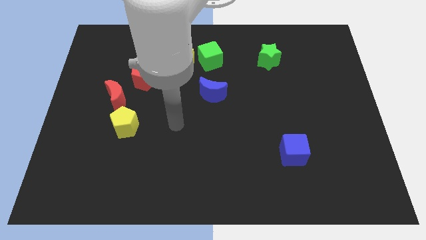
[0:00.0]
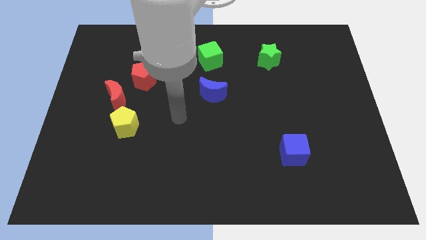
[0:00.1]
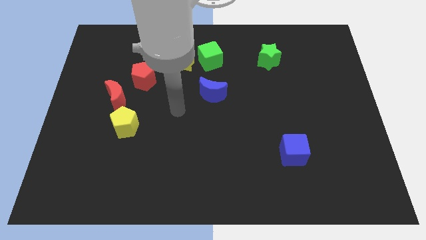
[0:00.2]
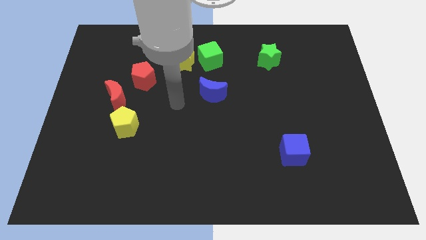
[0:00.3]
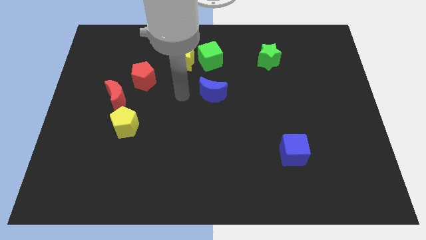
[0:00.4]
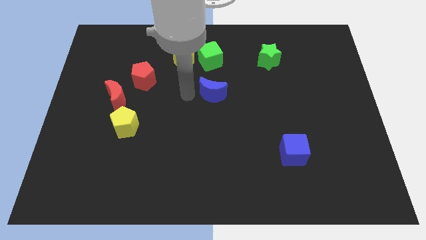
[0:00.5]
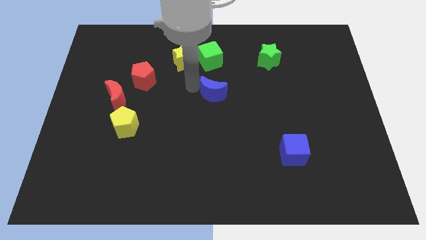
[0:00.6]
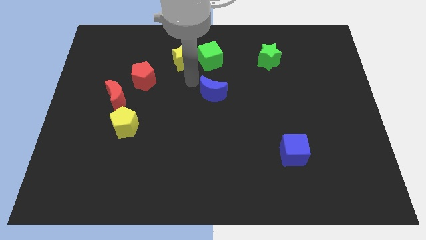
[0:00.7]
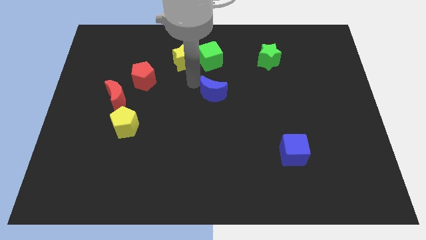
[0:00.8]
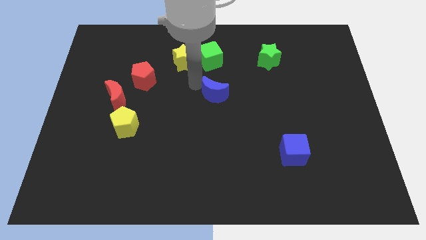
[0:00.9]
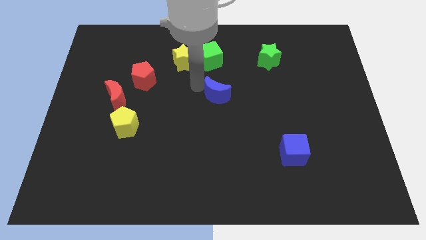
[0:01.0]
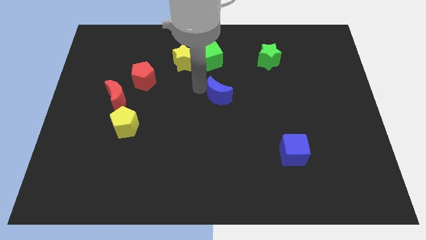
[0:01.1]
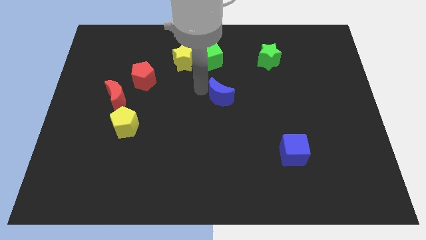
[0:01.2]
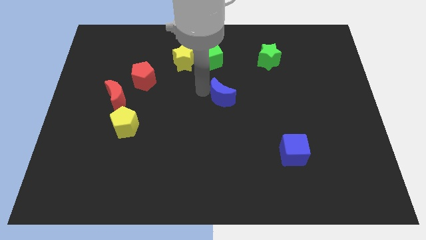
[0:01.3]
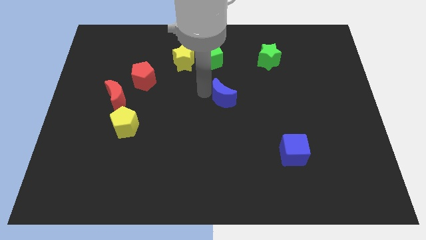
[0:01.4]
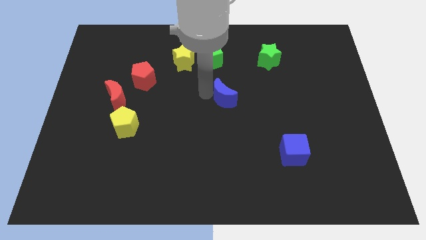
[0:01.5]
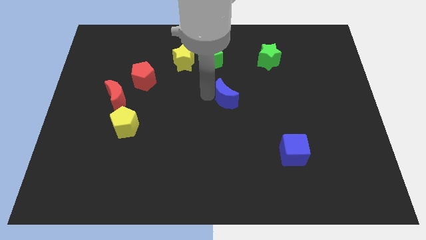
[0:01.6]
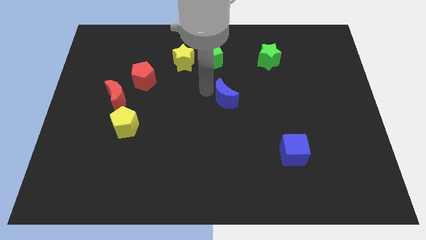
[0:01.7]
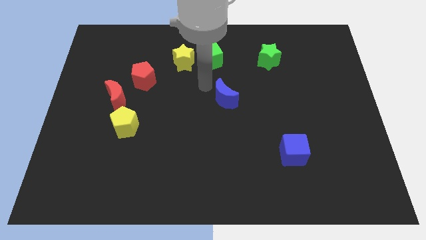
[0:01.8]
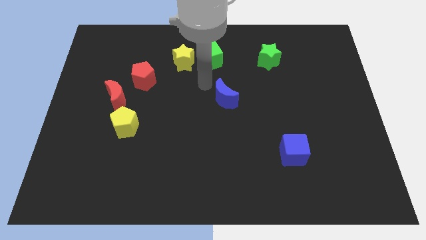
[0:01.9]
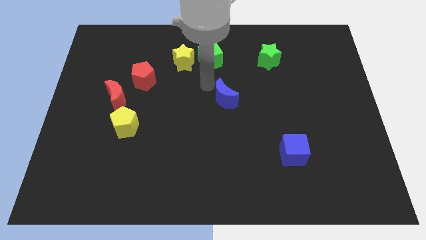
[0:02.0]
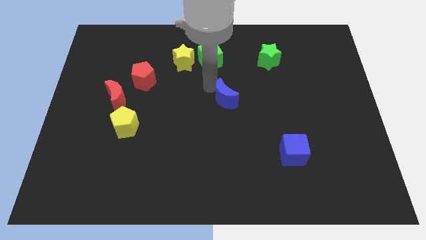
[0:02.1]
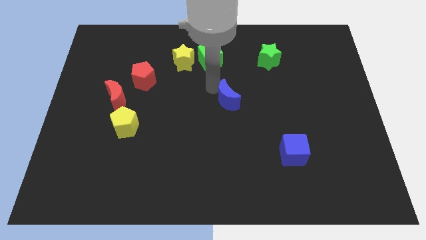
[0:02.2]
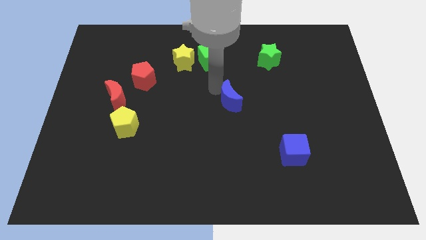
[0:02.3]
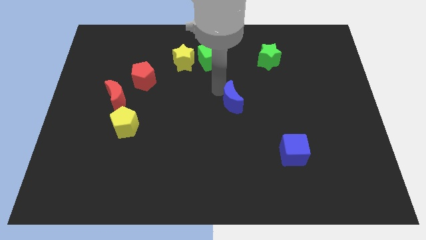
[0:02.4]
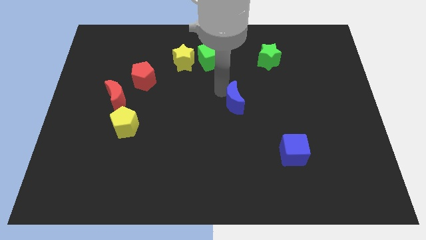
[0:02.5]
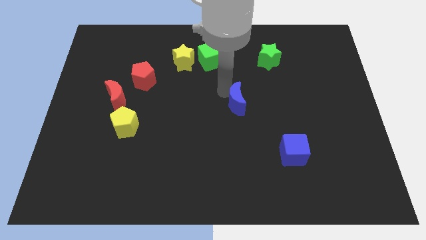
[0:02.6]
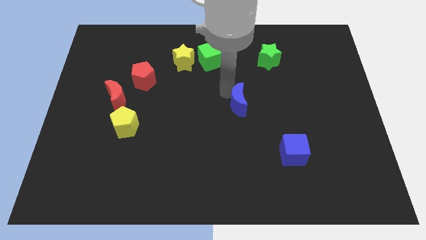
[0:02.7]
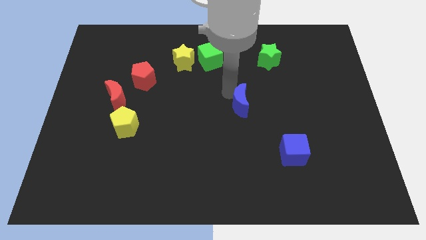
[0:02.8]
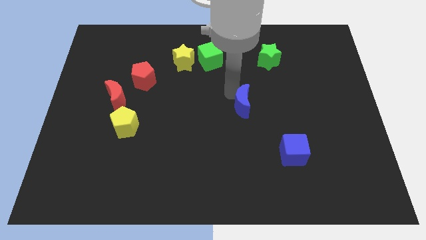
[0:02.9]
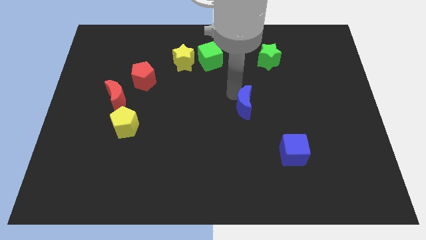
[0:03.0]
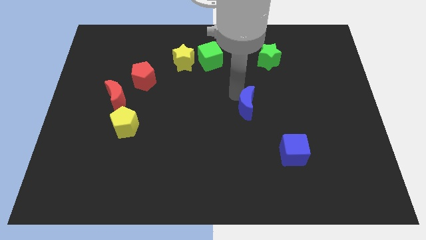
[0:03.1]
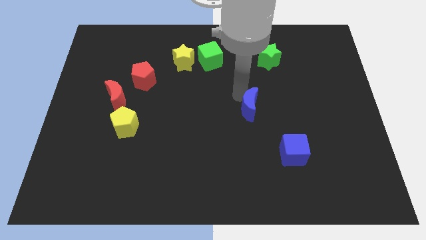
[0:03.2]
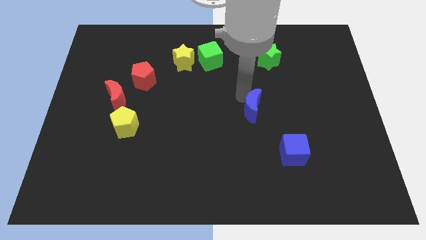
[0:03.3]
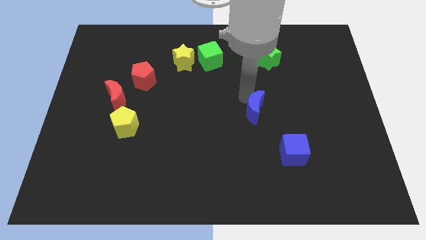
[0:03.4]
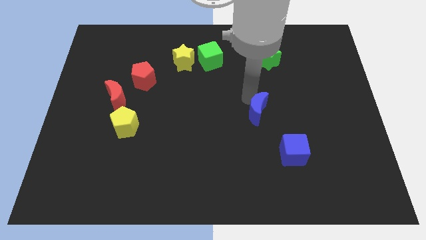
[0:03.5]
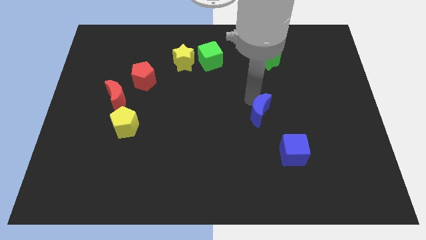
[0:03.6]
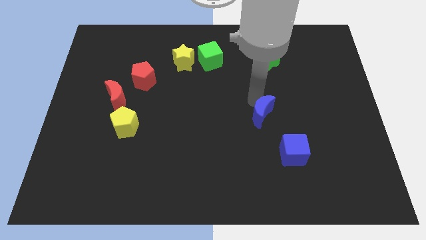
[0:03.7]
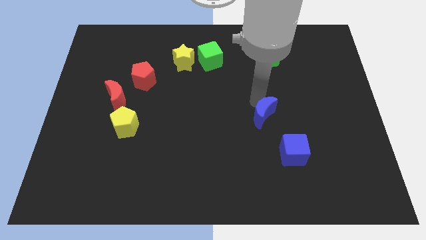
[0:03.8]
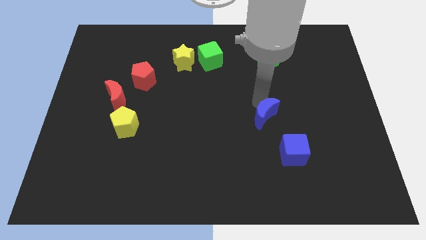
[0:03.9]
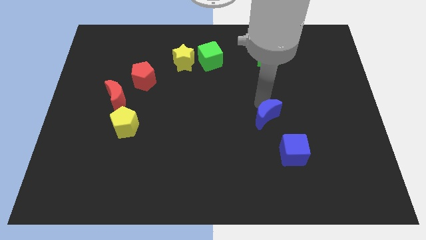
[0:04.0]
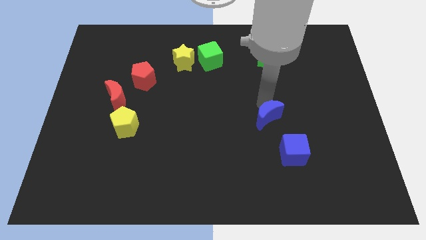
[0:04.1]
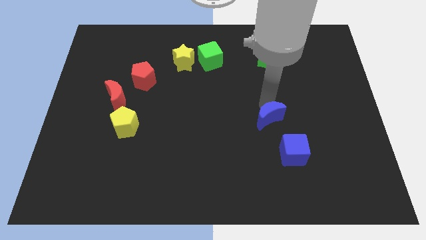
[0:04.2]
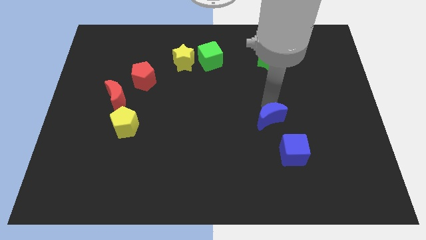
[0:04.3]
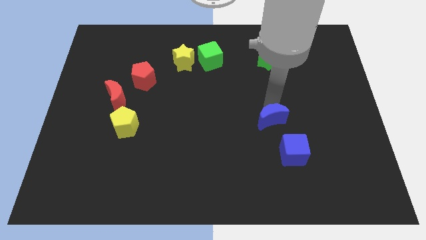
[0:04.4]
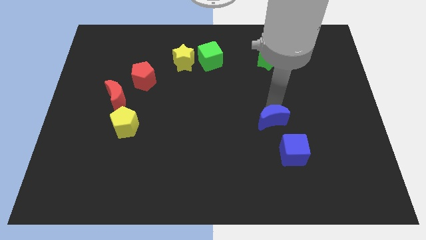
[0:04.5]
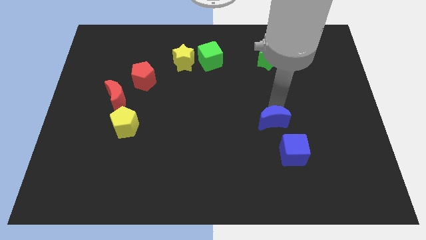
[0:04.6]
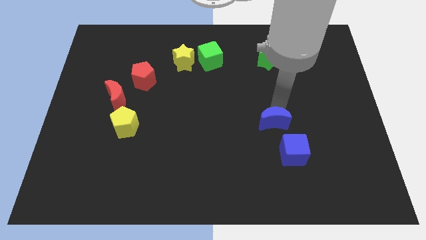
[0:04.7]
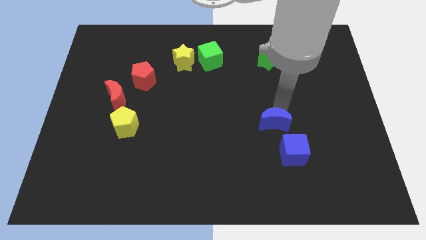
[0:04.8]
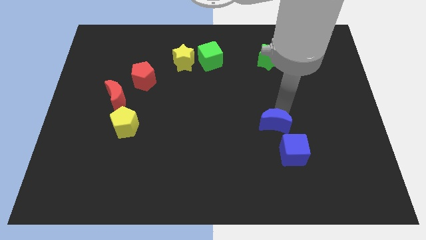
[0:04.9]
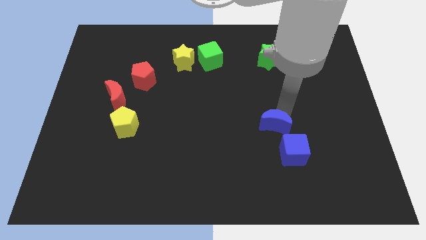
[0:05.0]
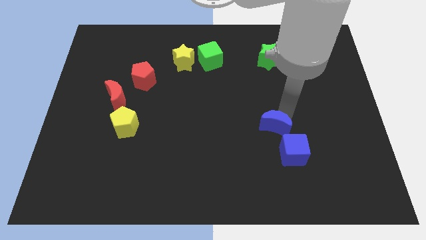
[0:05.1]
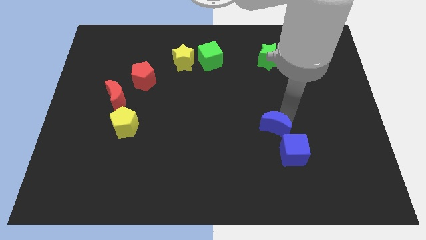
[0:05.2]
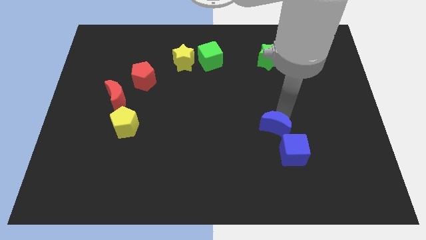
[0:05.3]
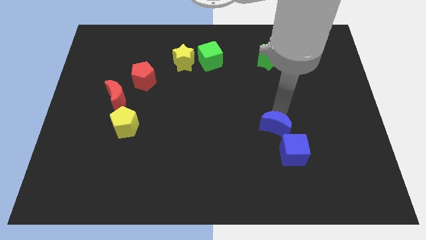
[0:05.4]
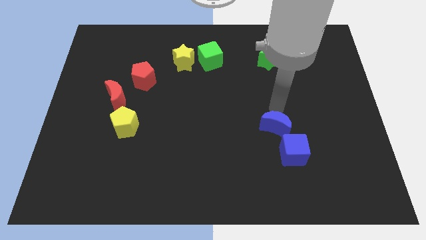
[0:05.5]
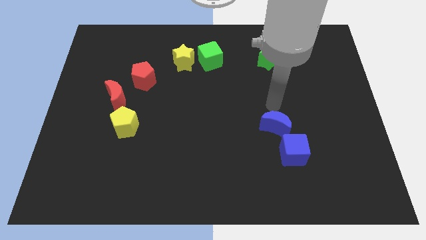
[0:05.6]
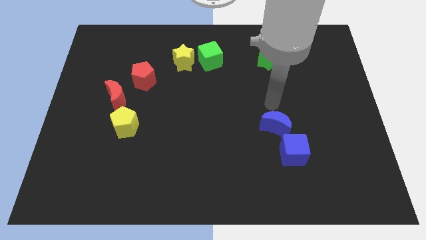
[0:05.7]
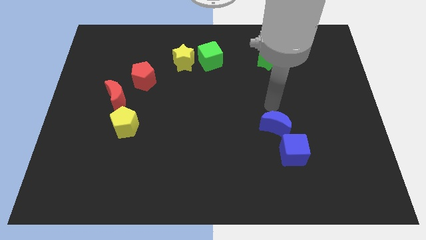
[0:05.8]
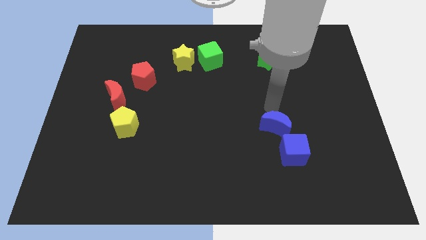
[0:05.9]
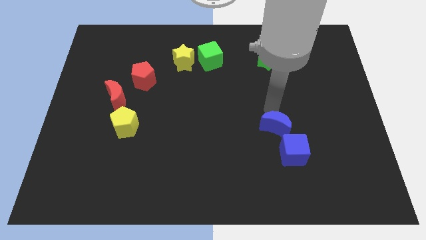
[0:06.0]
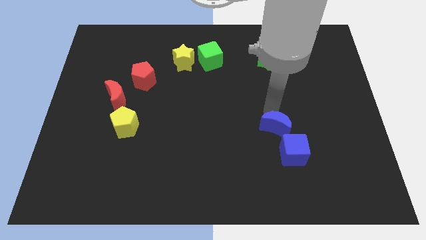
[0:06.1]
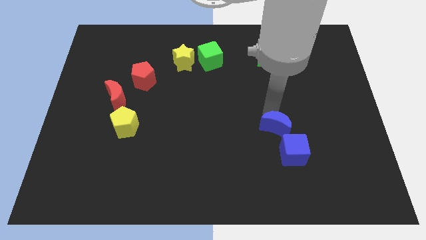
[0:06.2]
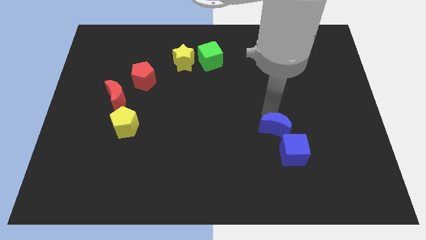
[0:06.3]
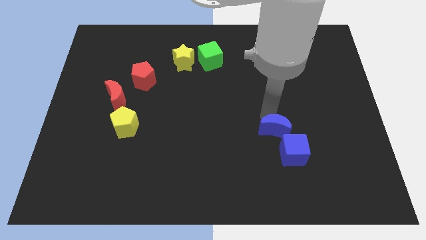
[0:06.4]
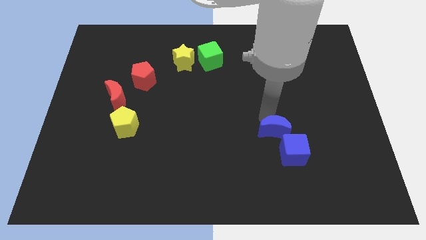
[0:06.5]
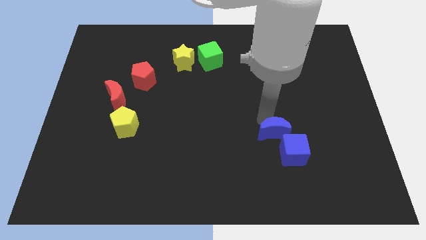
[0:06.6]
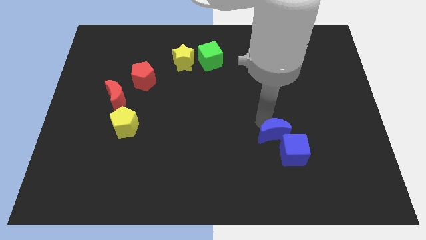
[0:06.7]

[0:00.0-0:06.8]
put the blue moon next to the blue cube

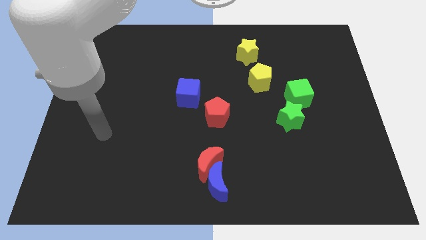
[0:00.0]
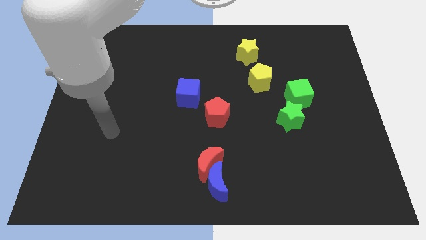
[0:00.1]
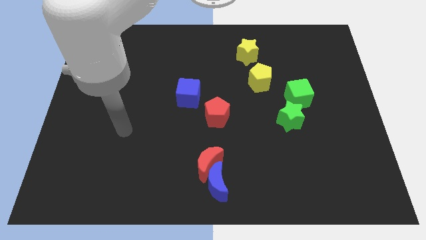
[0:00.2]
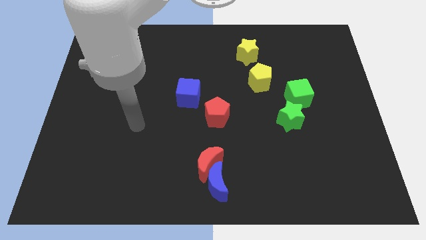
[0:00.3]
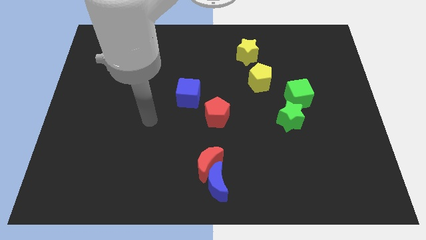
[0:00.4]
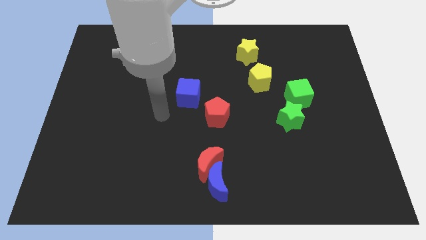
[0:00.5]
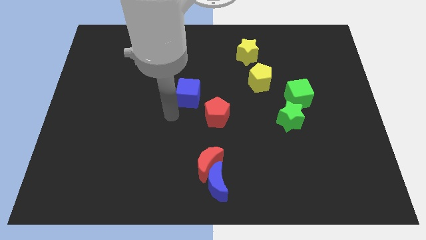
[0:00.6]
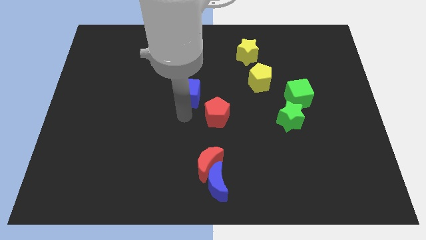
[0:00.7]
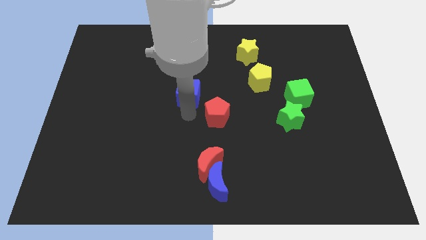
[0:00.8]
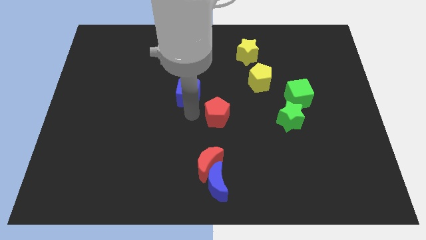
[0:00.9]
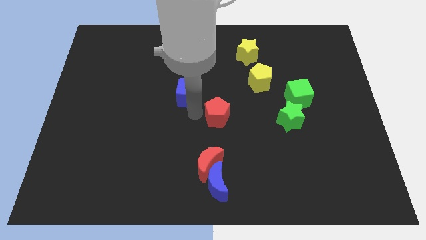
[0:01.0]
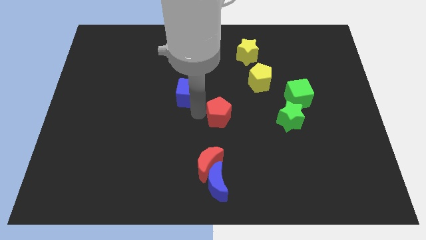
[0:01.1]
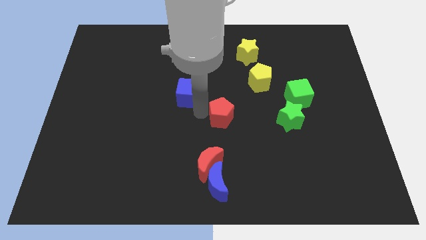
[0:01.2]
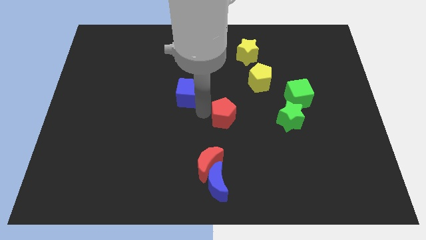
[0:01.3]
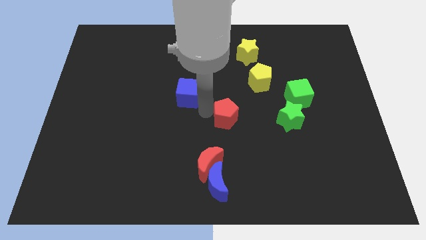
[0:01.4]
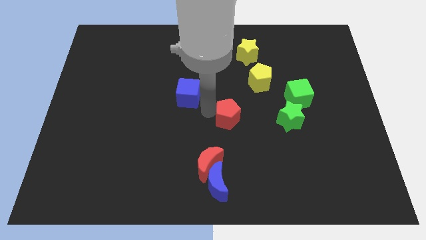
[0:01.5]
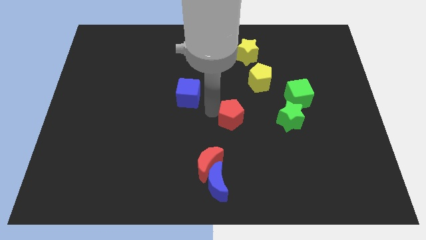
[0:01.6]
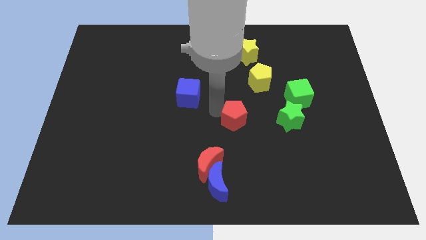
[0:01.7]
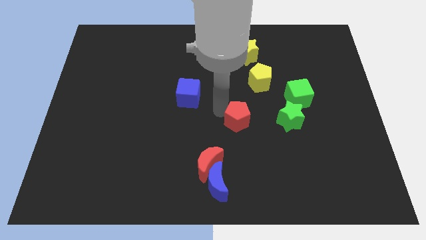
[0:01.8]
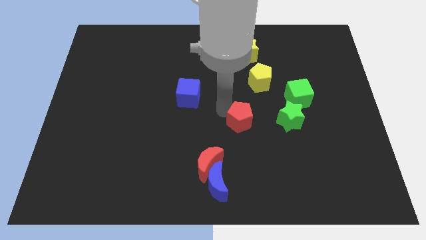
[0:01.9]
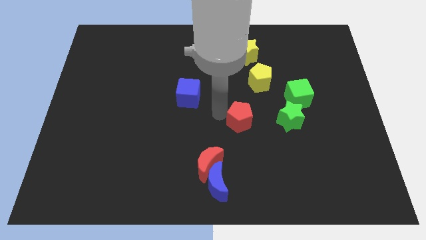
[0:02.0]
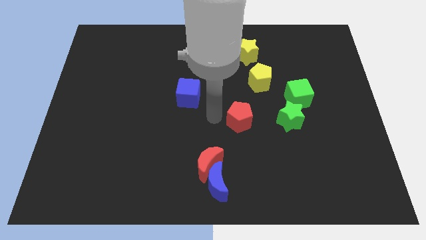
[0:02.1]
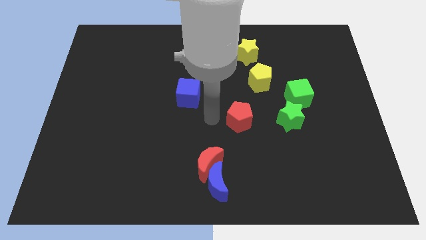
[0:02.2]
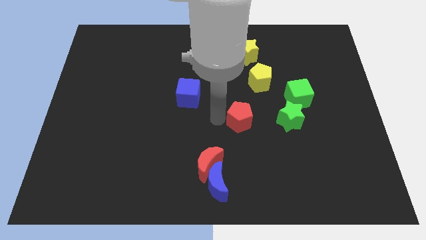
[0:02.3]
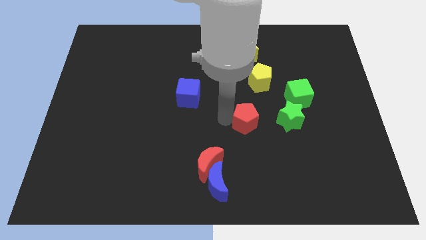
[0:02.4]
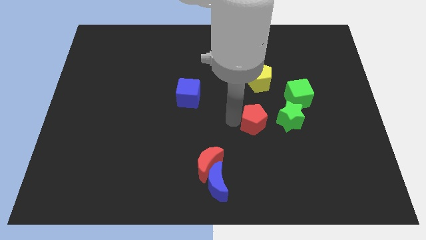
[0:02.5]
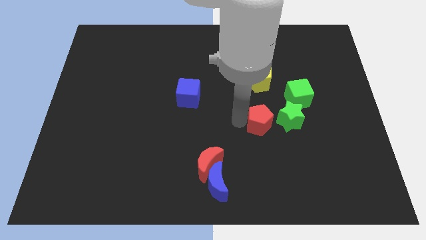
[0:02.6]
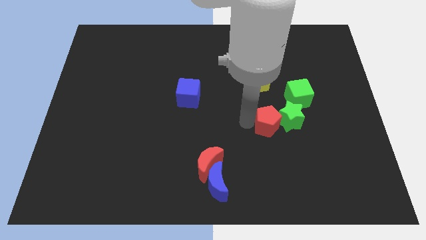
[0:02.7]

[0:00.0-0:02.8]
slide the red pentagon to the green star
